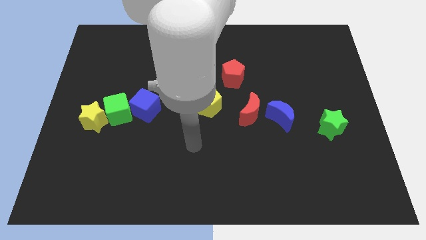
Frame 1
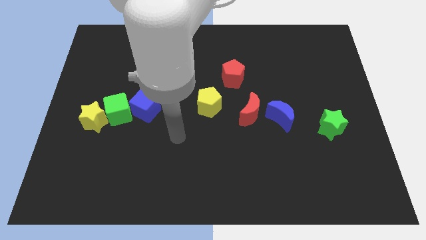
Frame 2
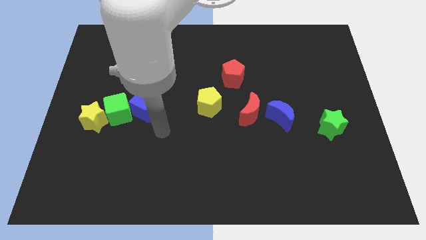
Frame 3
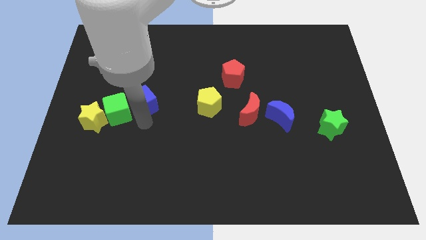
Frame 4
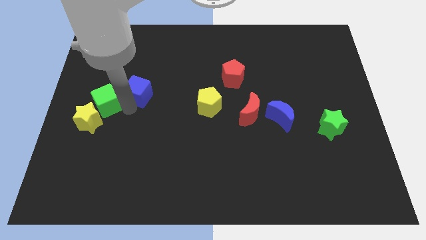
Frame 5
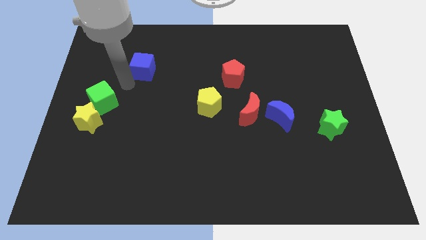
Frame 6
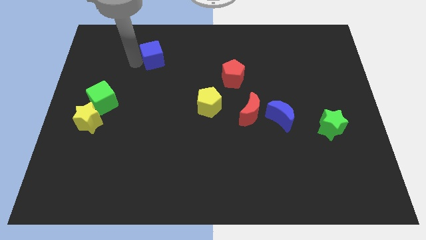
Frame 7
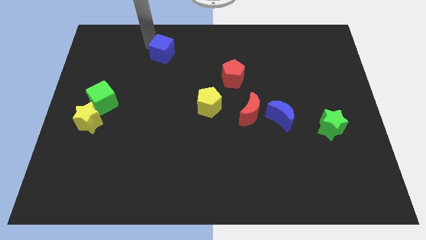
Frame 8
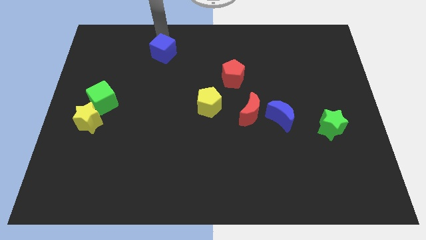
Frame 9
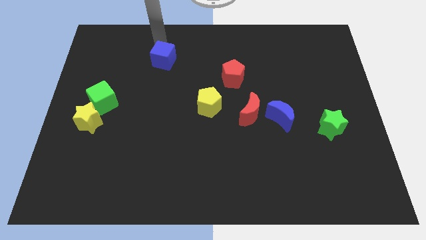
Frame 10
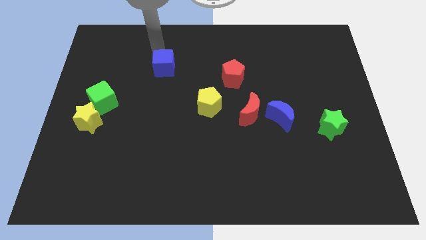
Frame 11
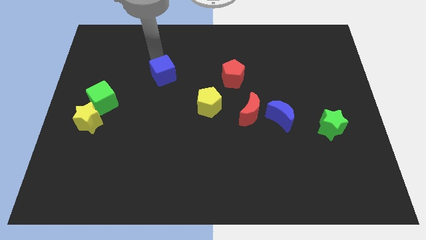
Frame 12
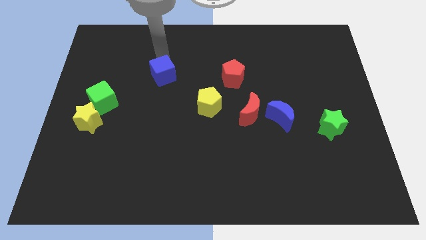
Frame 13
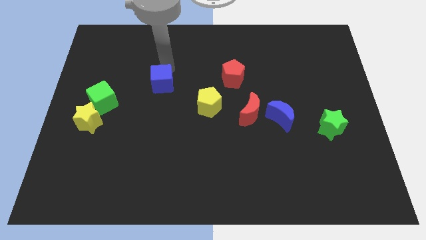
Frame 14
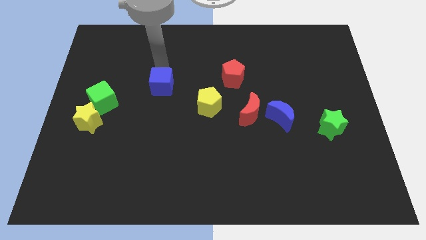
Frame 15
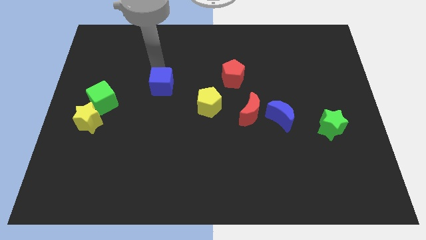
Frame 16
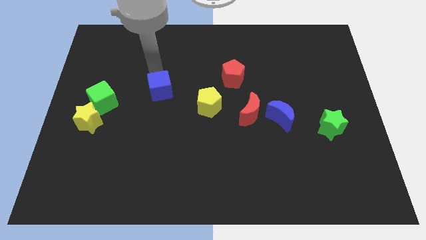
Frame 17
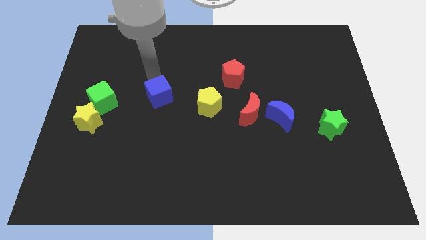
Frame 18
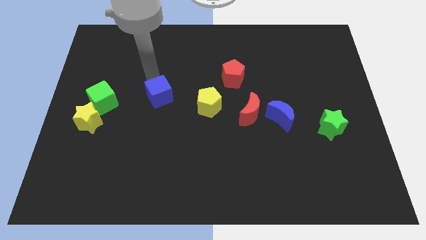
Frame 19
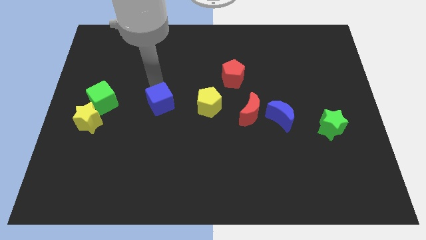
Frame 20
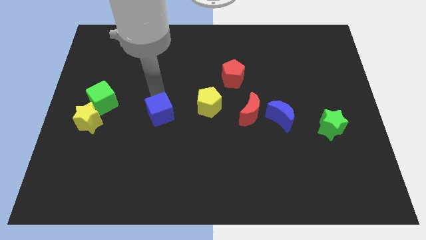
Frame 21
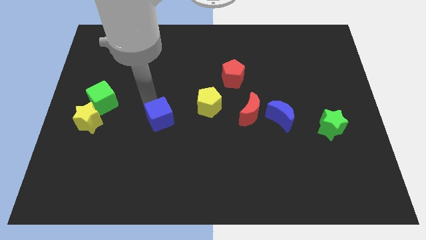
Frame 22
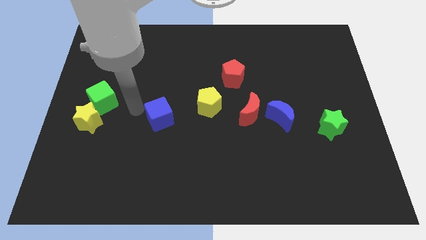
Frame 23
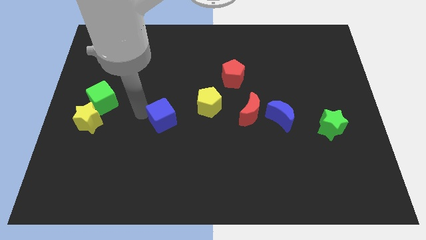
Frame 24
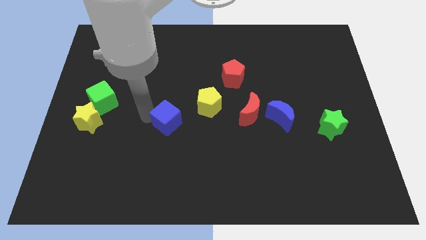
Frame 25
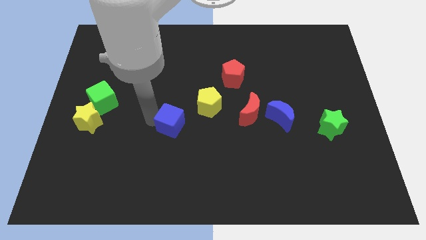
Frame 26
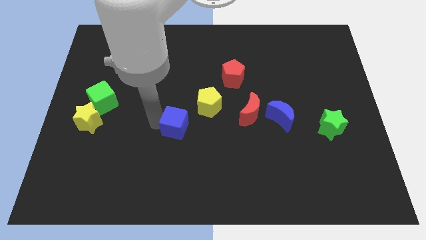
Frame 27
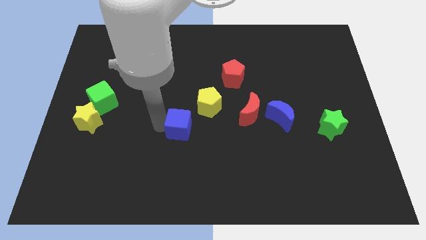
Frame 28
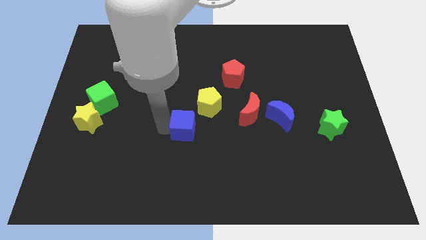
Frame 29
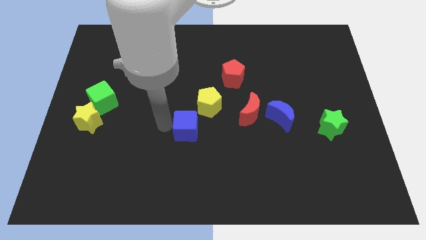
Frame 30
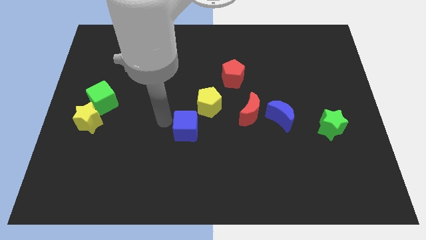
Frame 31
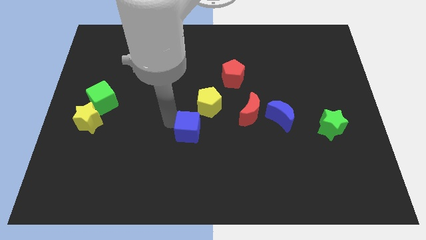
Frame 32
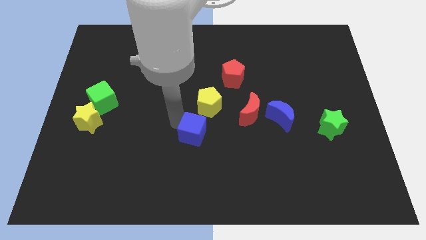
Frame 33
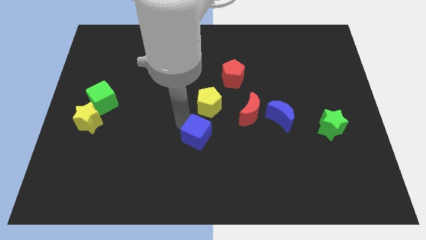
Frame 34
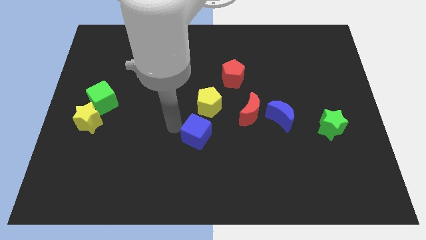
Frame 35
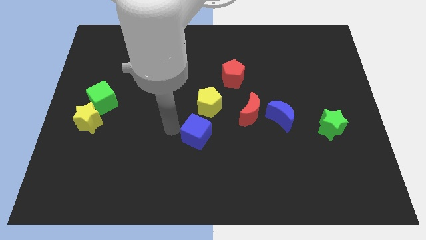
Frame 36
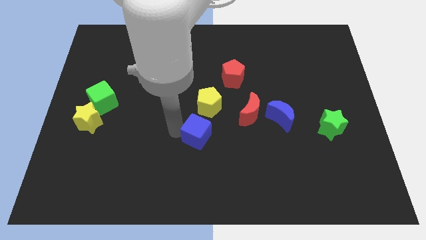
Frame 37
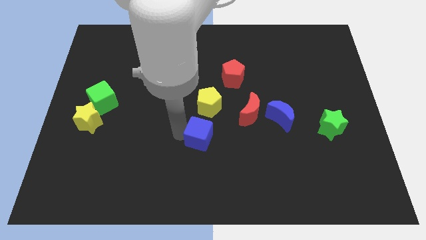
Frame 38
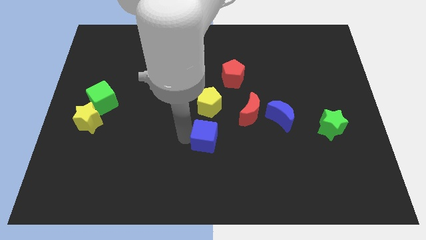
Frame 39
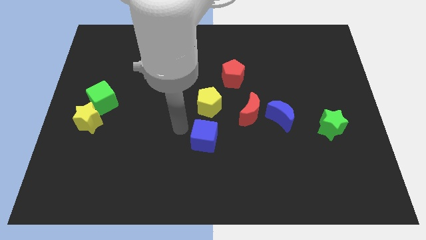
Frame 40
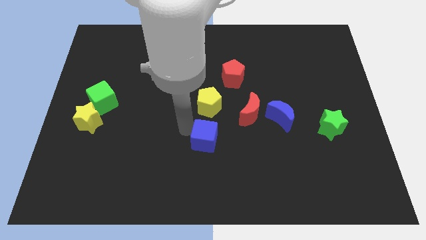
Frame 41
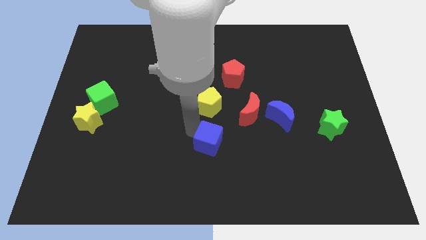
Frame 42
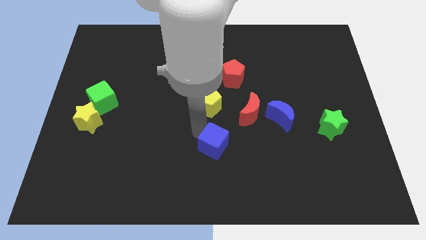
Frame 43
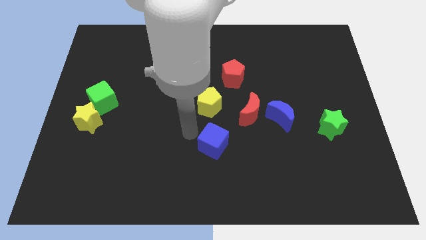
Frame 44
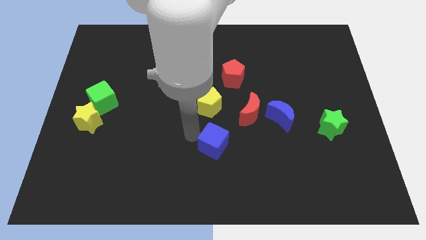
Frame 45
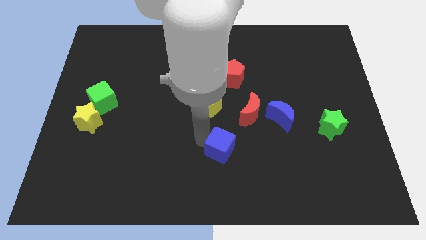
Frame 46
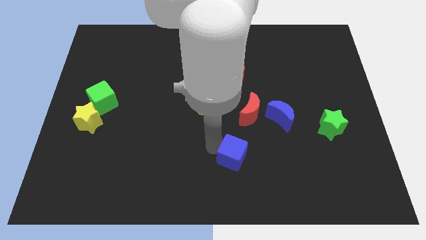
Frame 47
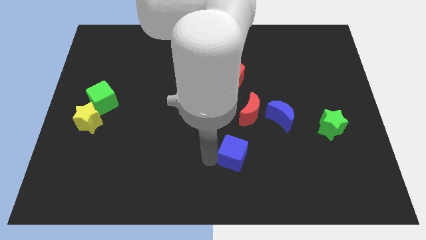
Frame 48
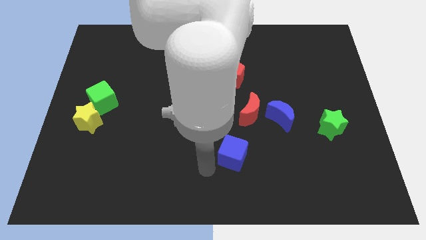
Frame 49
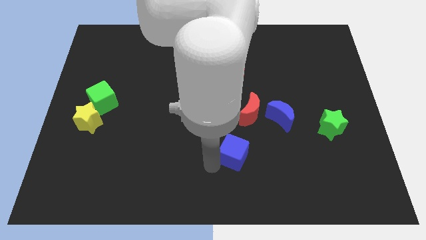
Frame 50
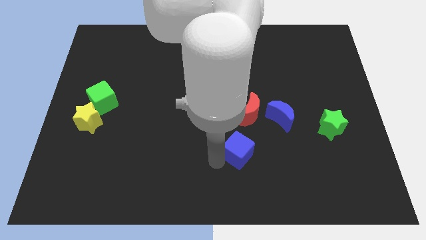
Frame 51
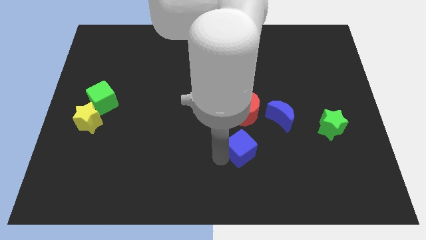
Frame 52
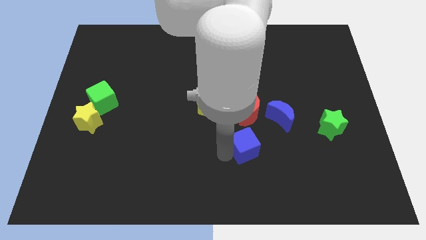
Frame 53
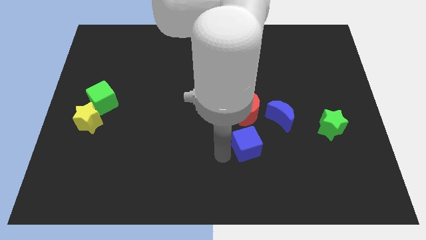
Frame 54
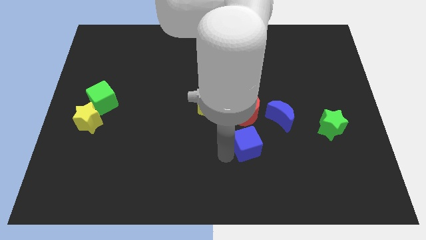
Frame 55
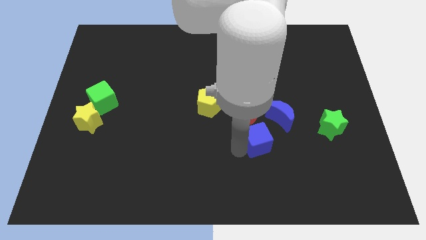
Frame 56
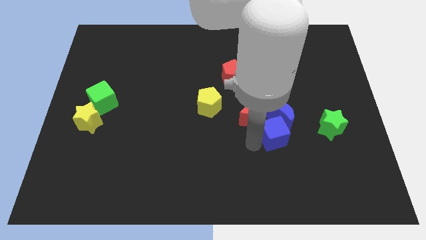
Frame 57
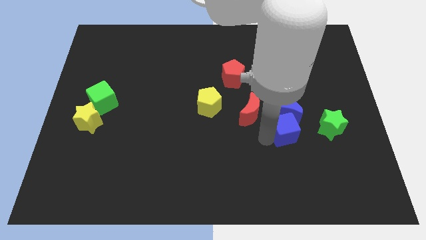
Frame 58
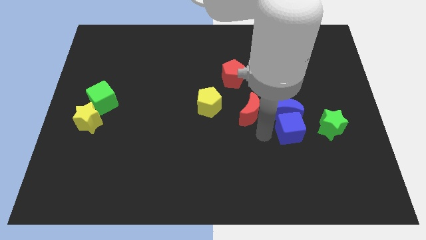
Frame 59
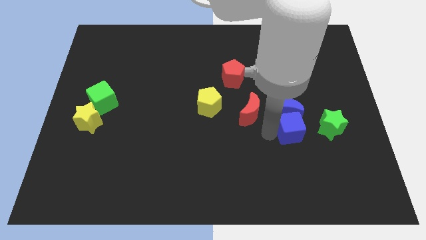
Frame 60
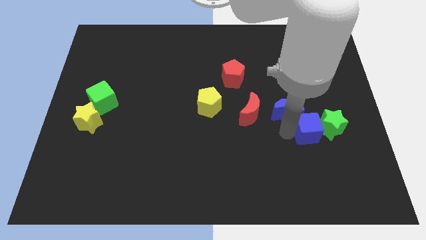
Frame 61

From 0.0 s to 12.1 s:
slide the blue cube next to the green star

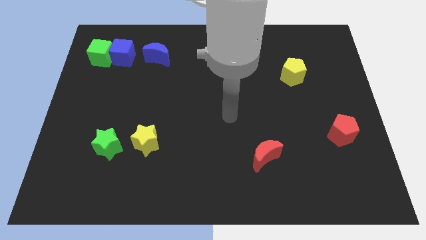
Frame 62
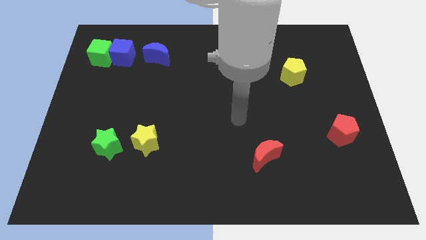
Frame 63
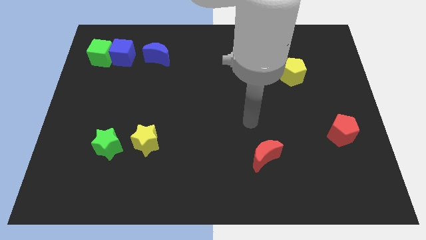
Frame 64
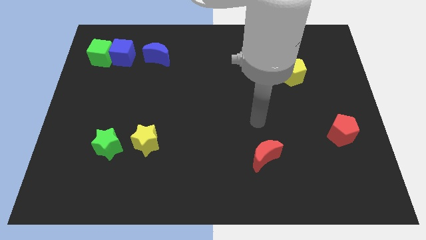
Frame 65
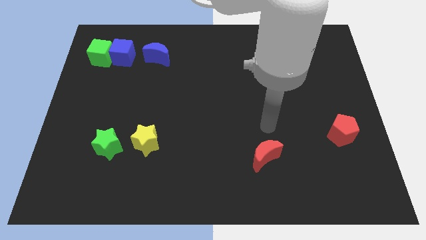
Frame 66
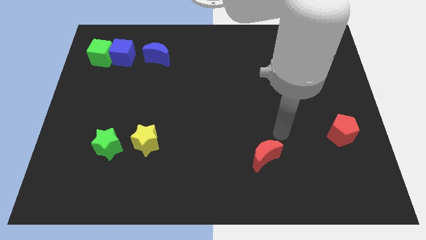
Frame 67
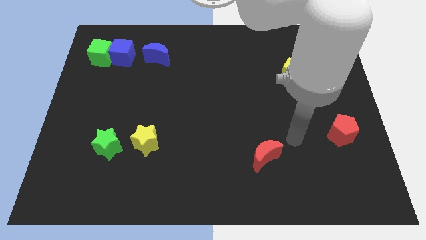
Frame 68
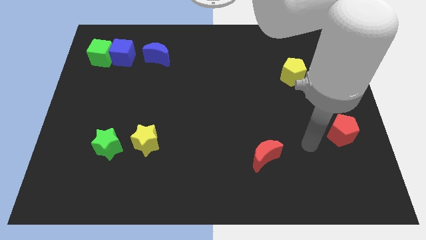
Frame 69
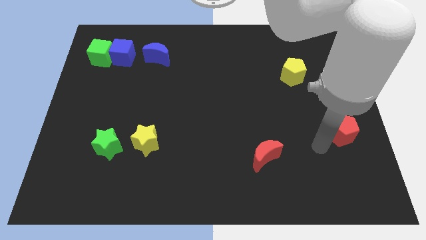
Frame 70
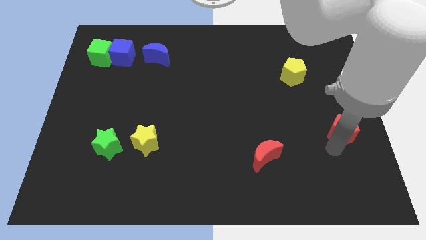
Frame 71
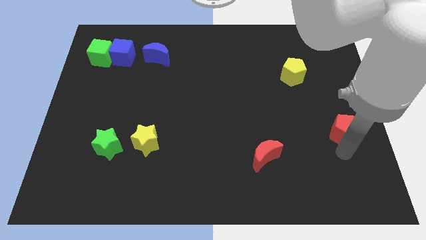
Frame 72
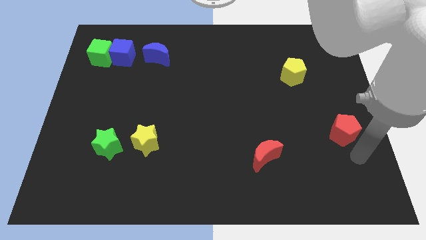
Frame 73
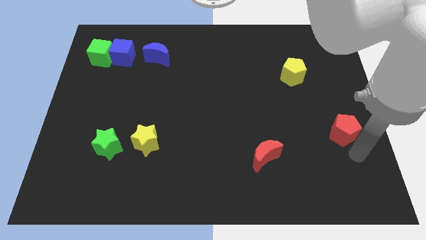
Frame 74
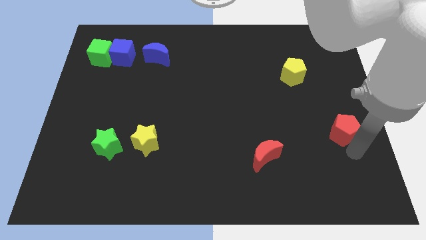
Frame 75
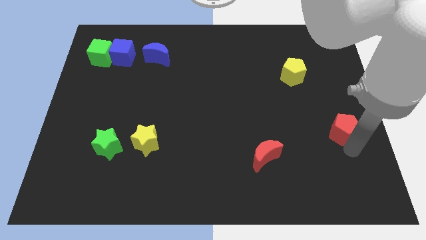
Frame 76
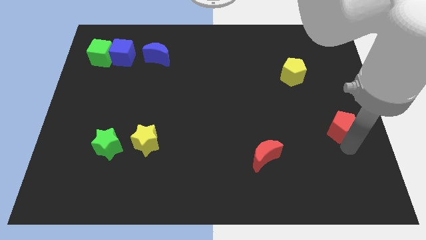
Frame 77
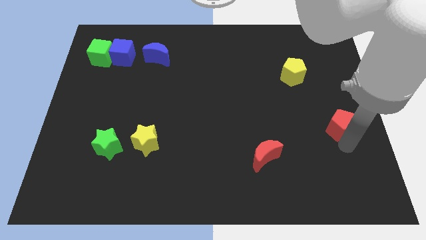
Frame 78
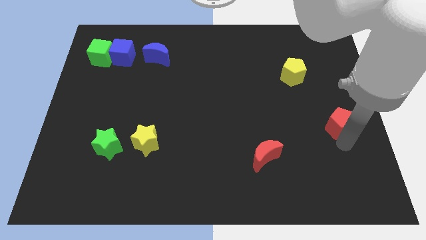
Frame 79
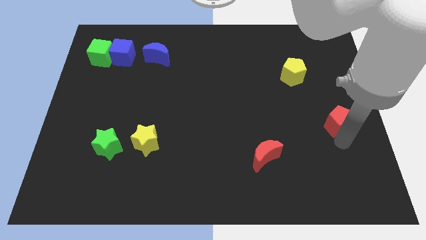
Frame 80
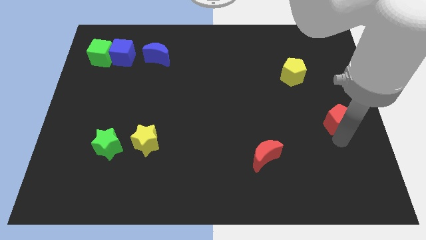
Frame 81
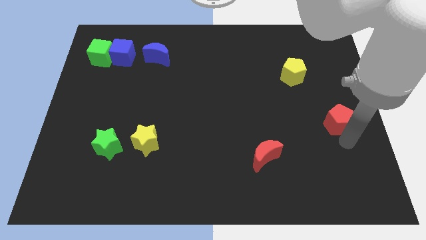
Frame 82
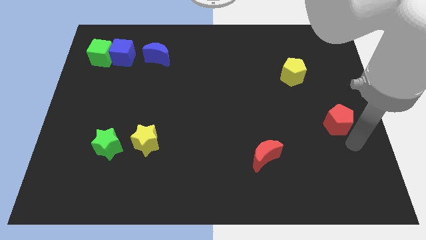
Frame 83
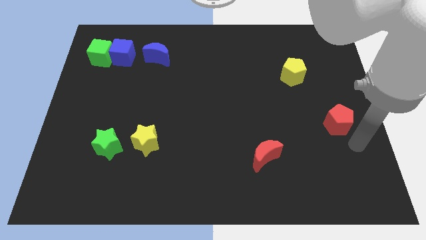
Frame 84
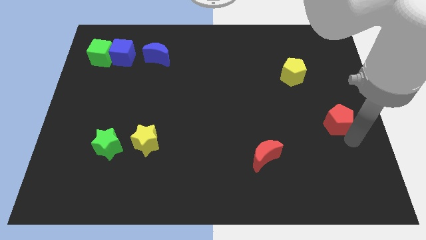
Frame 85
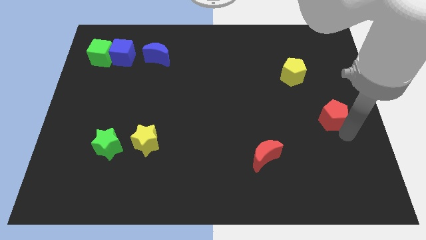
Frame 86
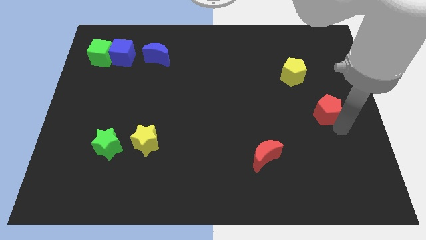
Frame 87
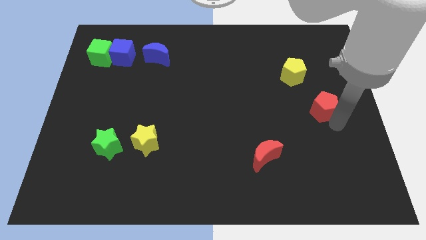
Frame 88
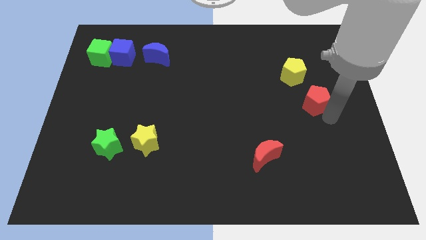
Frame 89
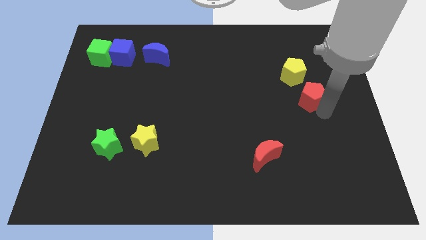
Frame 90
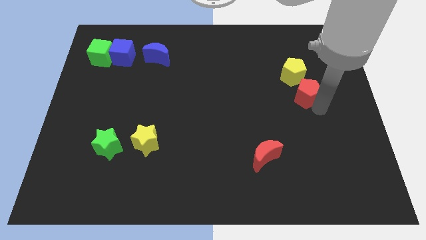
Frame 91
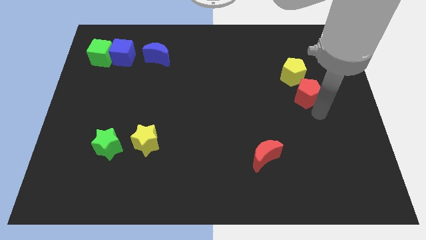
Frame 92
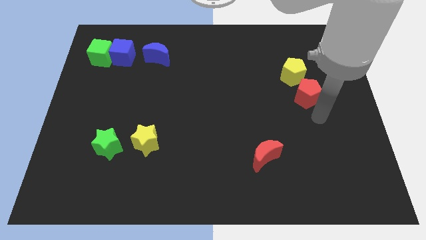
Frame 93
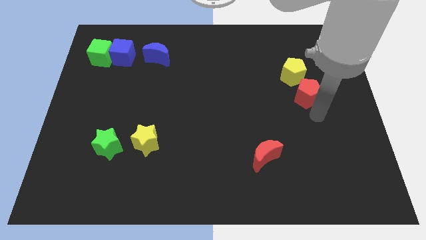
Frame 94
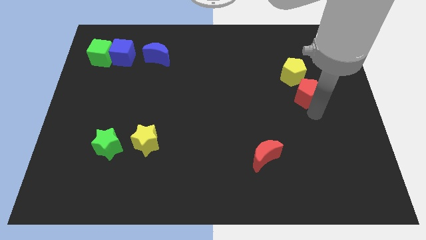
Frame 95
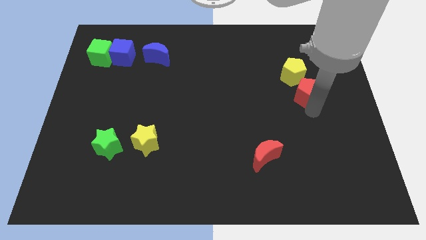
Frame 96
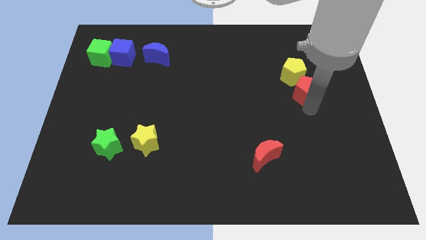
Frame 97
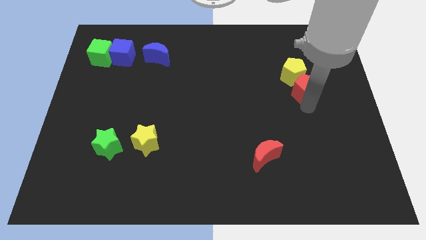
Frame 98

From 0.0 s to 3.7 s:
move the red pentagon next to the yellow pentagon
